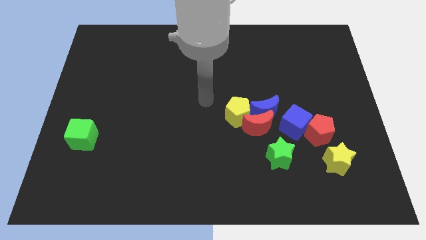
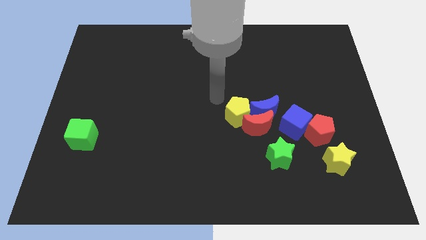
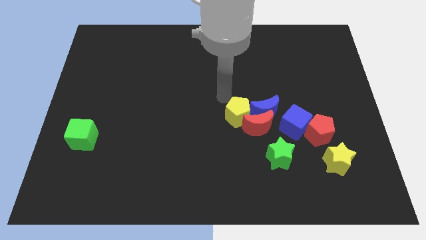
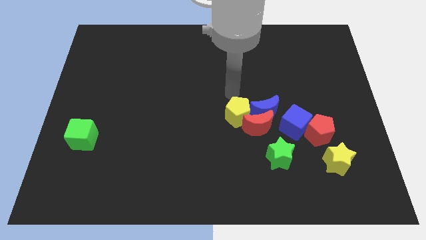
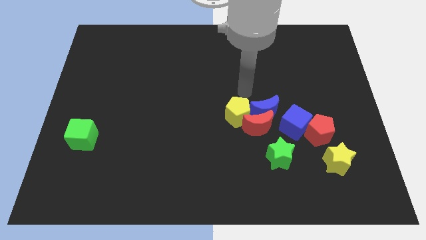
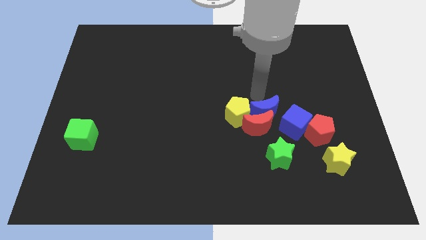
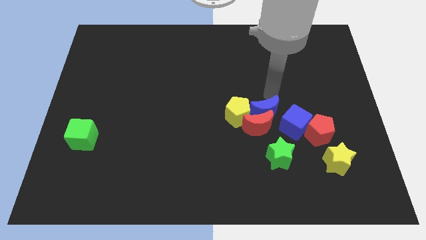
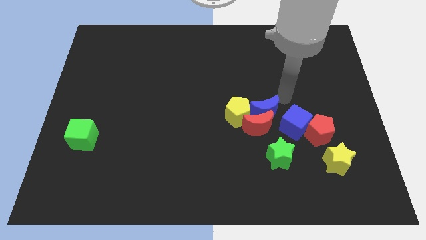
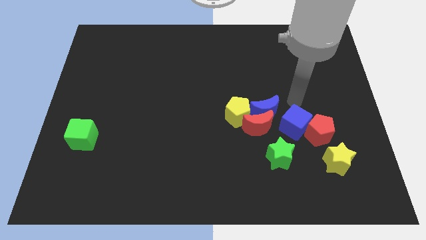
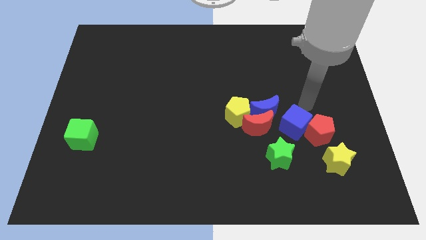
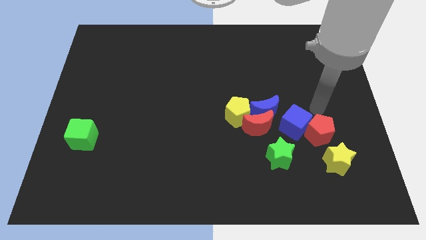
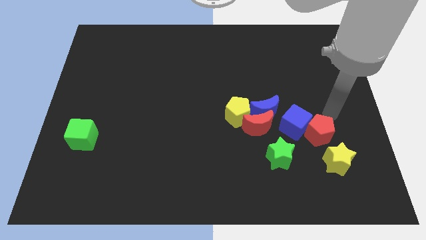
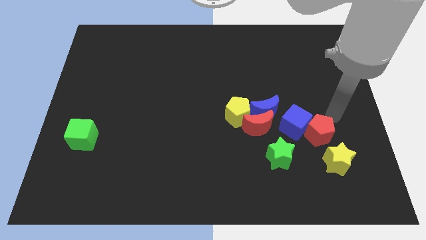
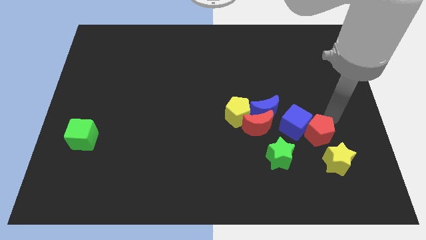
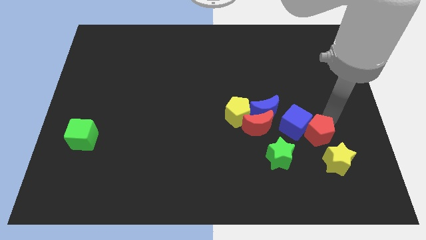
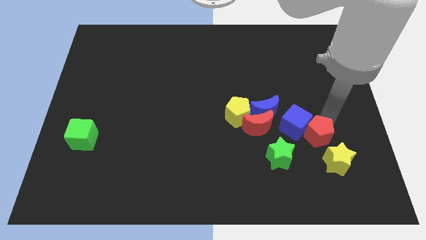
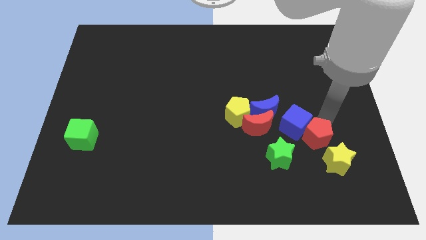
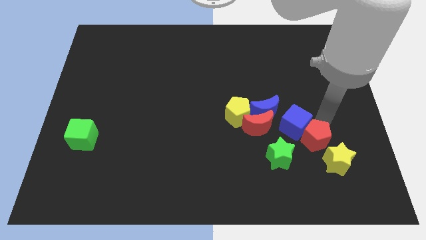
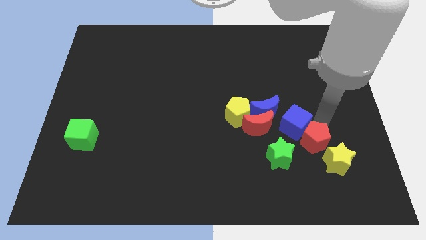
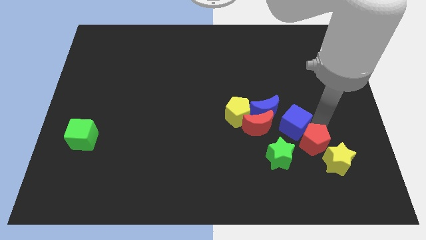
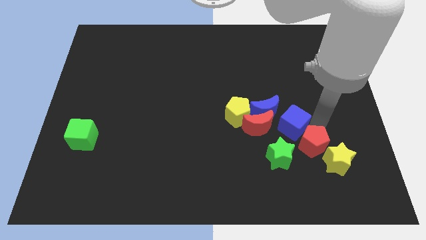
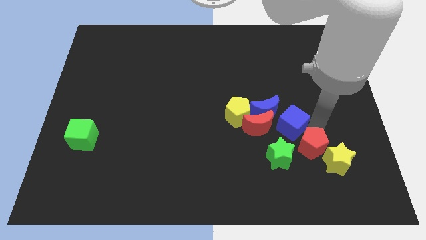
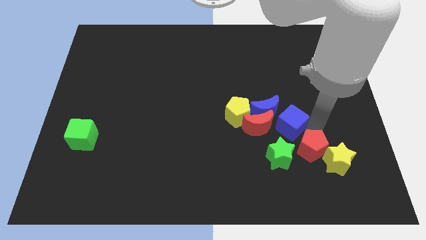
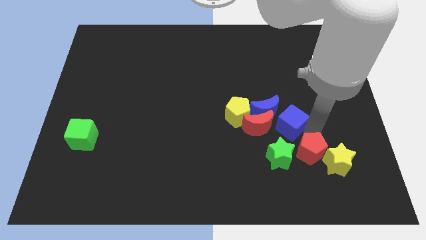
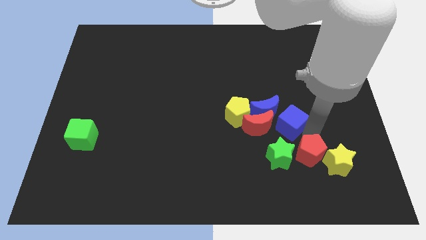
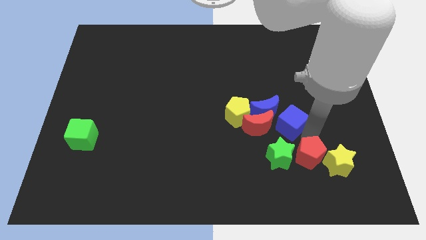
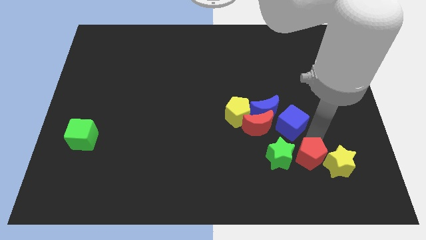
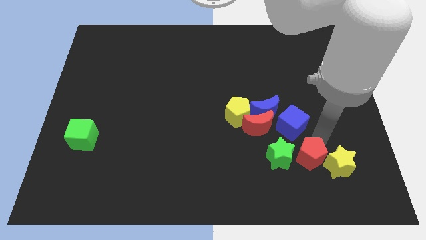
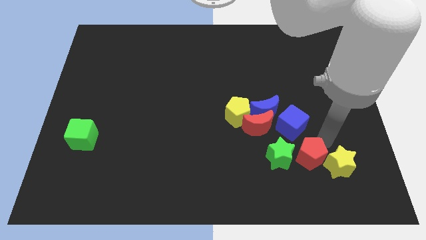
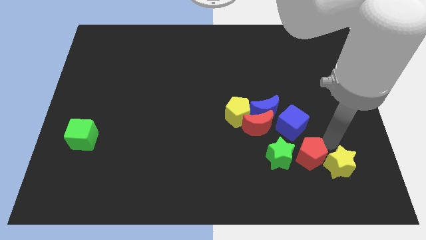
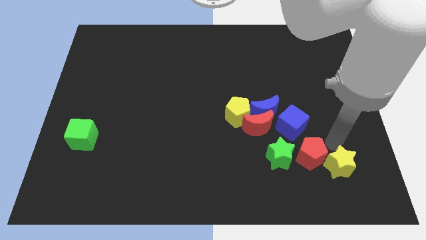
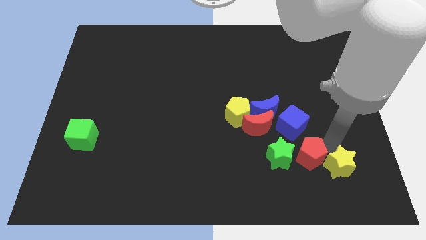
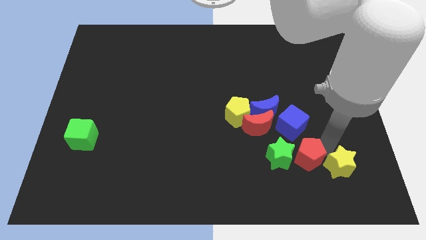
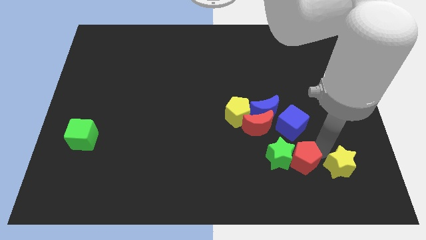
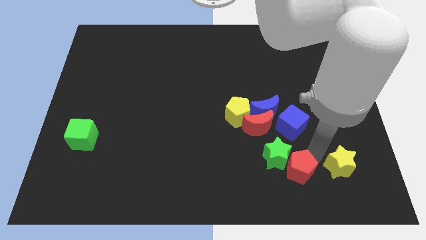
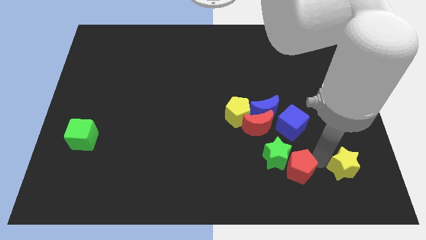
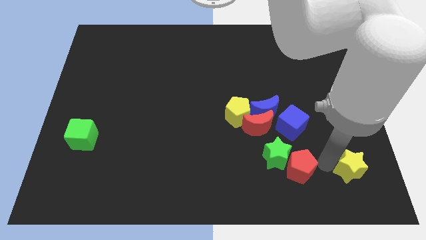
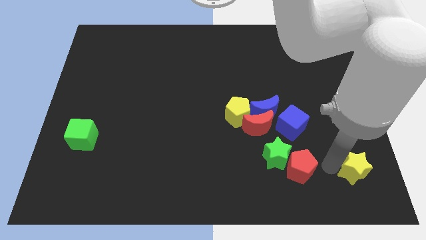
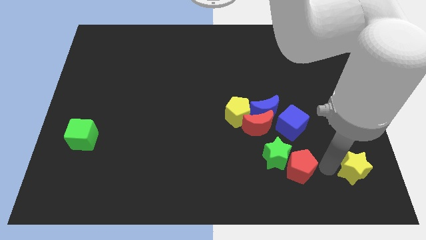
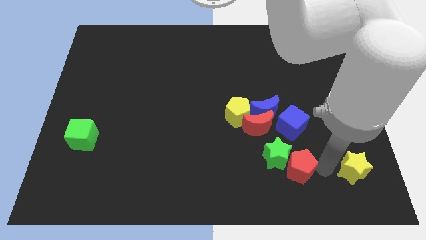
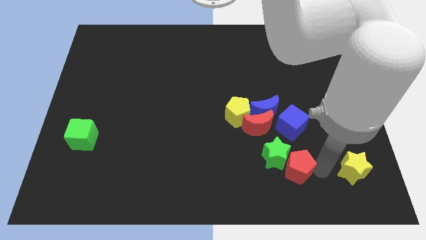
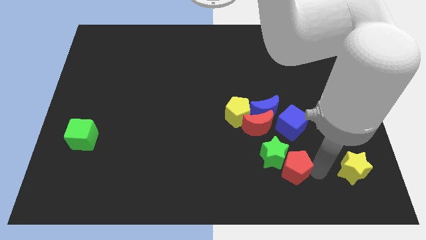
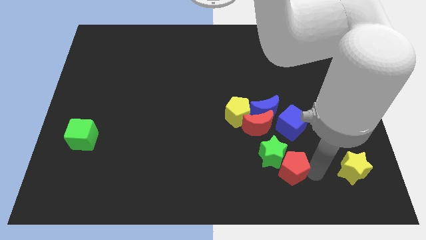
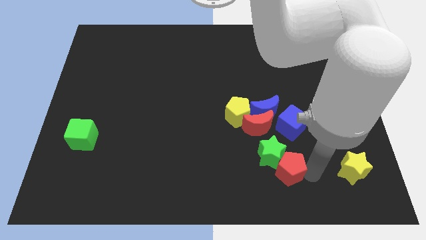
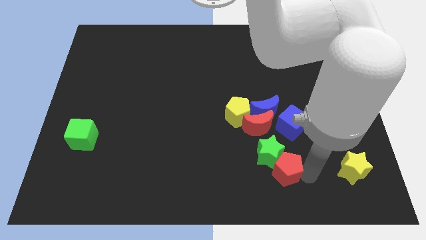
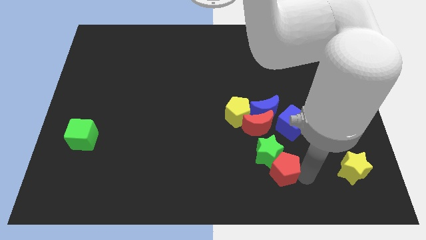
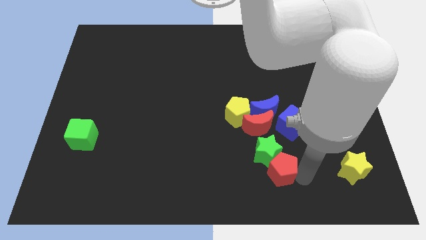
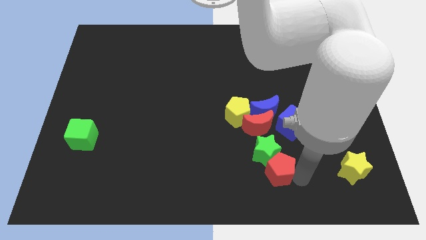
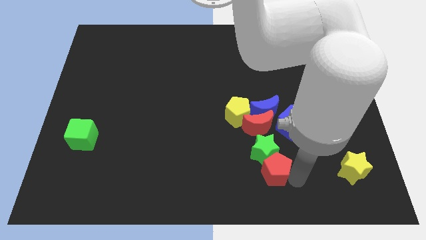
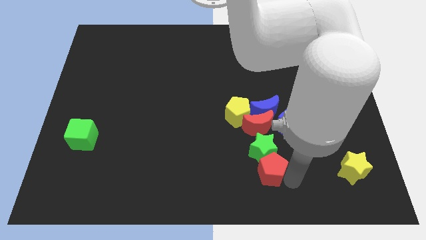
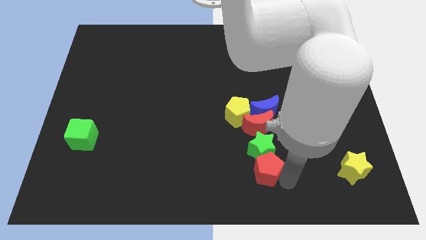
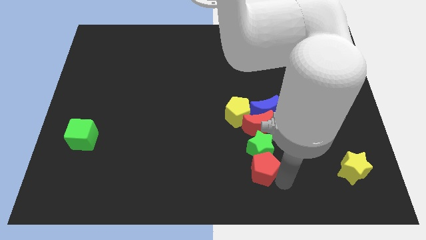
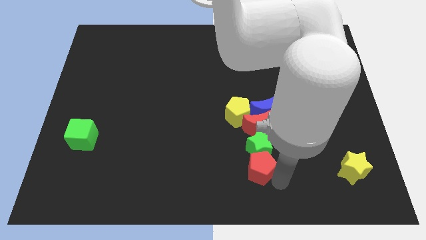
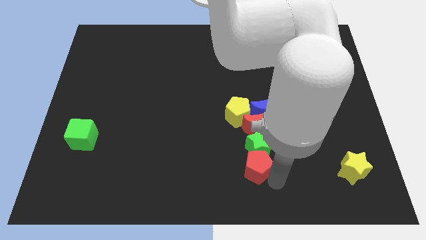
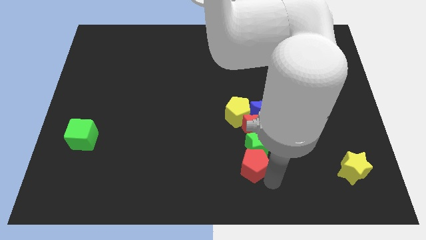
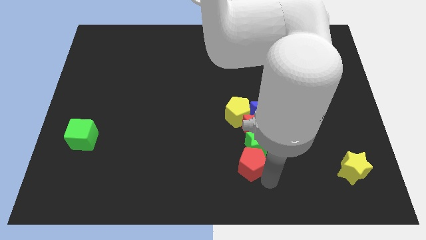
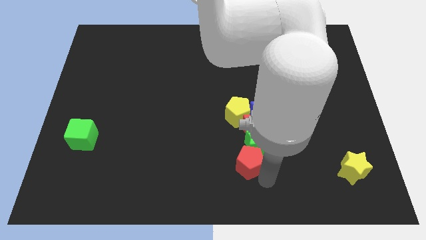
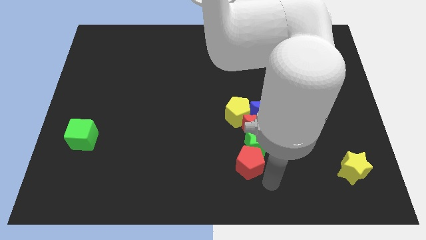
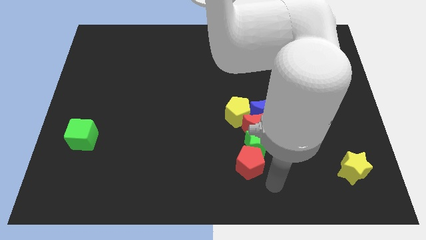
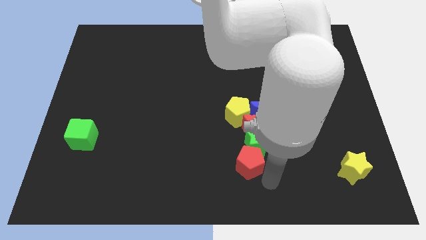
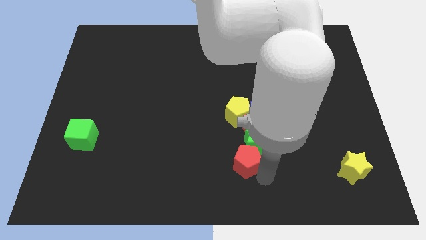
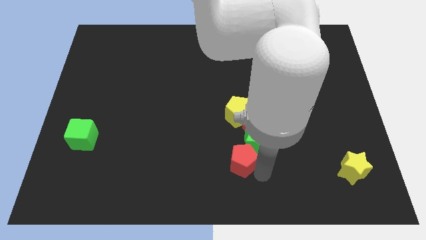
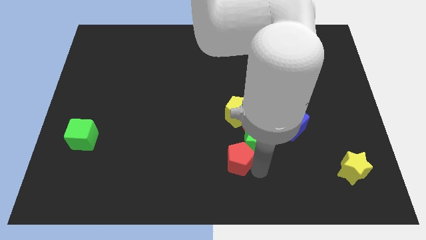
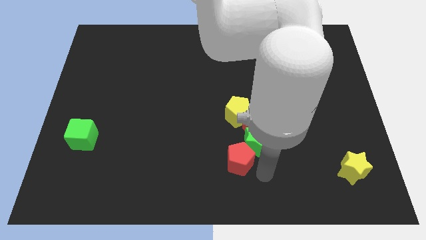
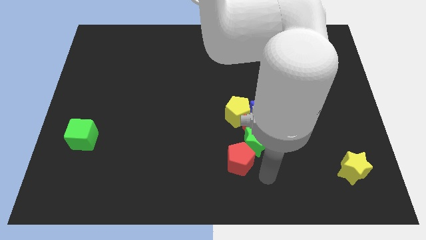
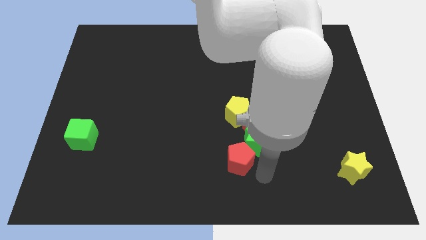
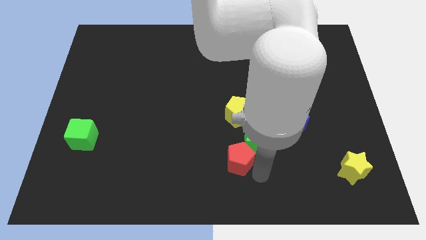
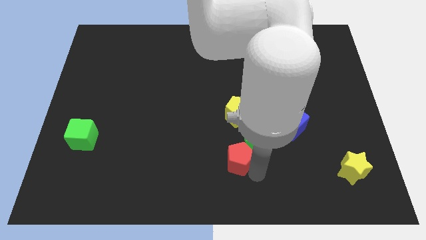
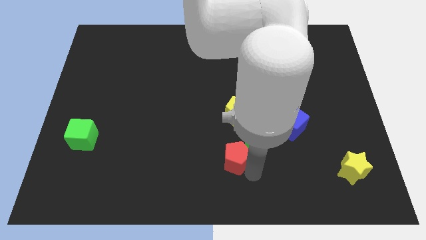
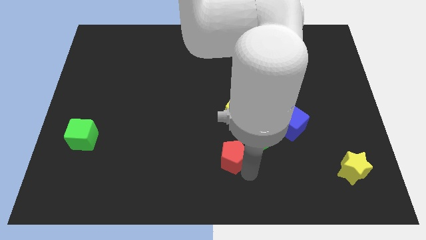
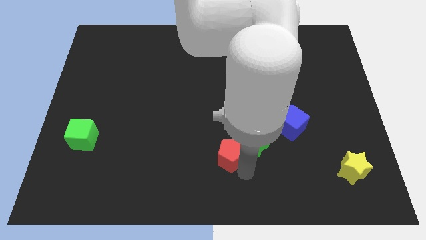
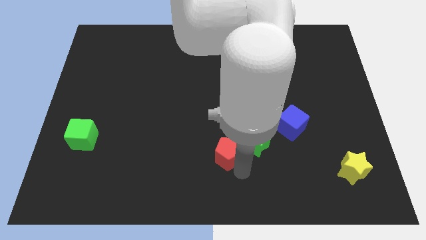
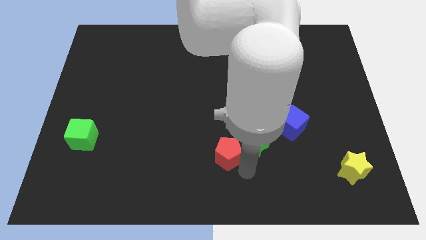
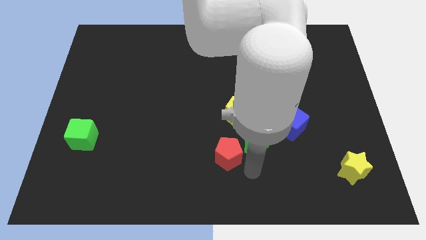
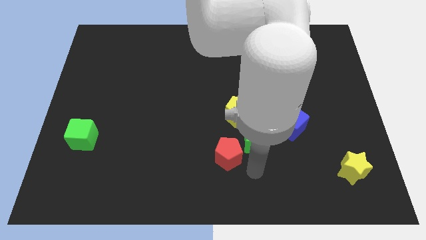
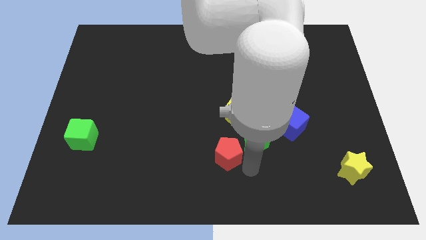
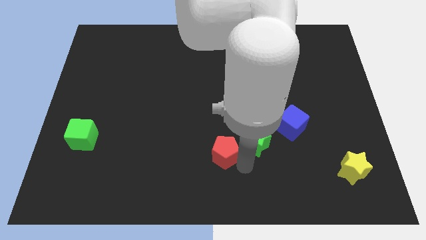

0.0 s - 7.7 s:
move the red pentagon left

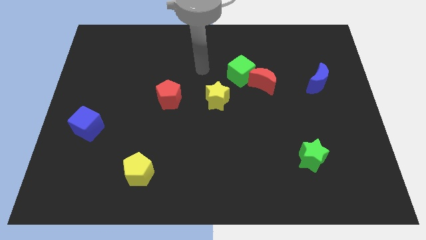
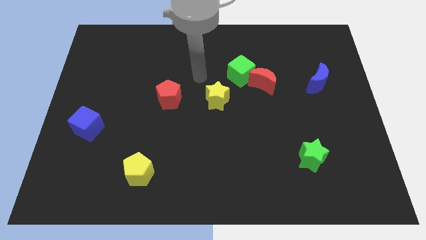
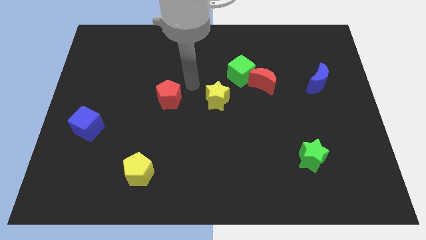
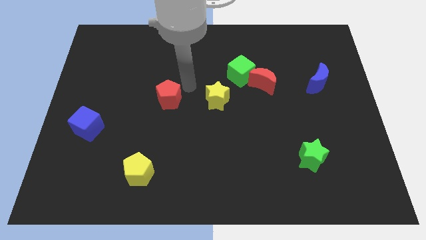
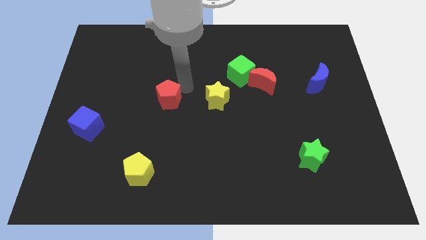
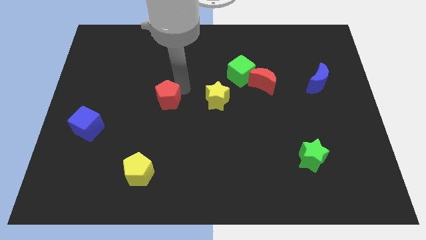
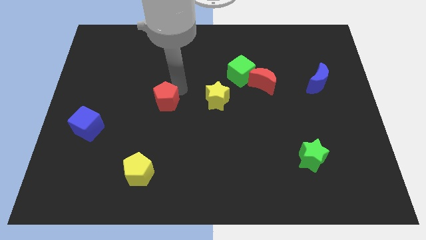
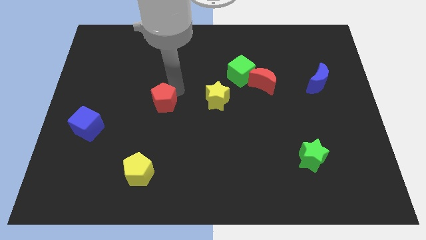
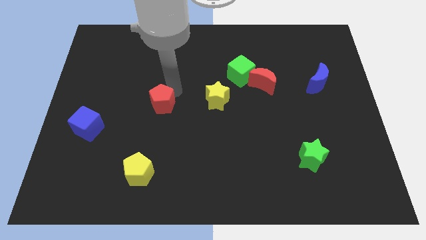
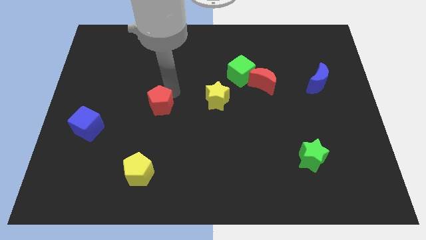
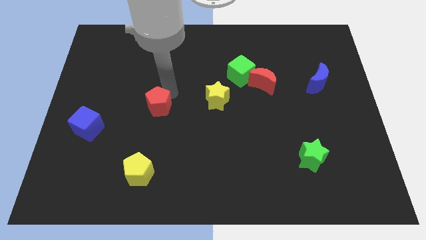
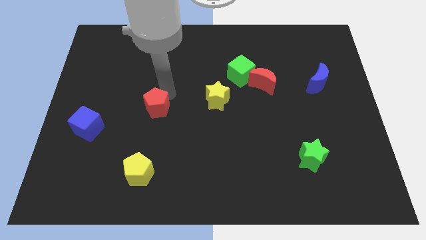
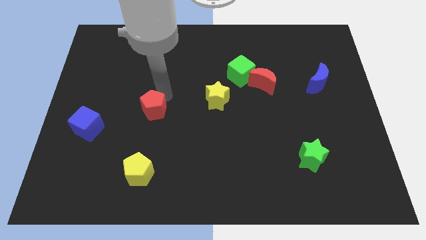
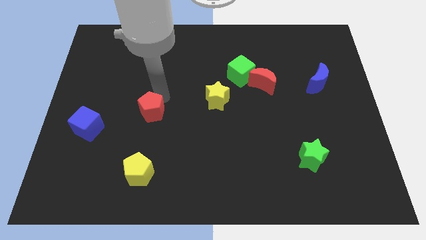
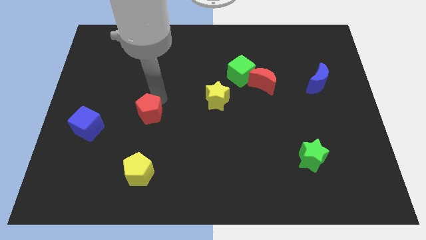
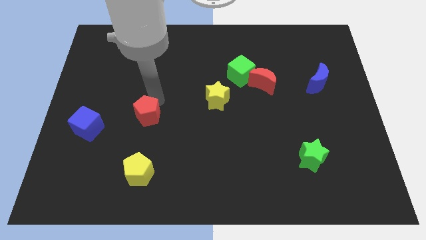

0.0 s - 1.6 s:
slightly move the red pentagon downwards and then to the left
